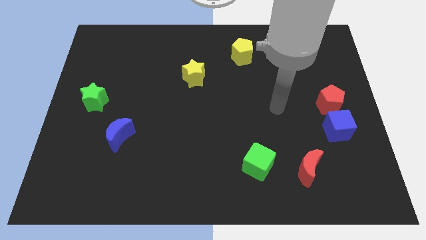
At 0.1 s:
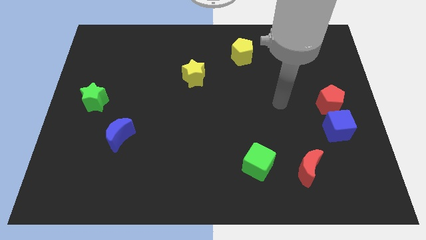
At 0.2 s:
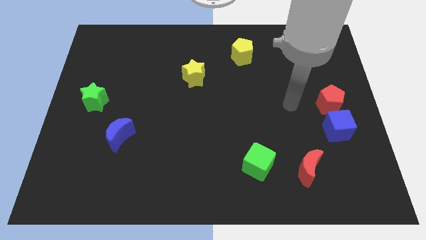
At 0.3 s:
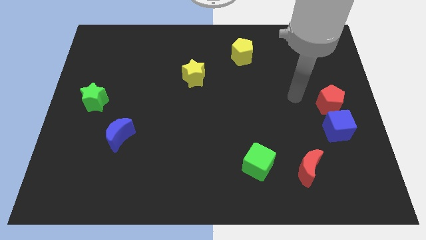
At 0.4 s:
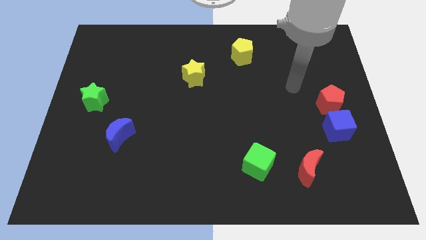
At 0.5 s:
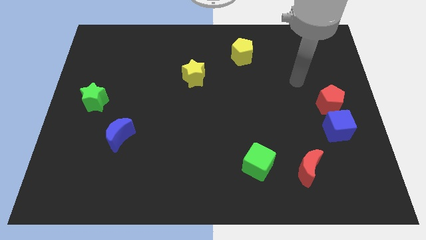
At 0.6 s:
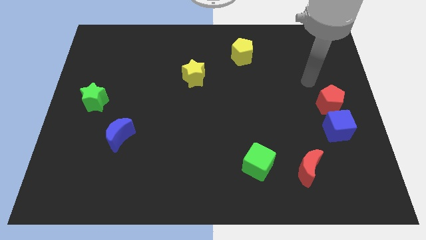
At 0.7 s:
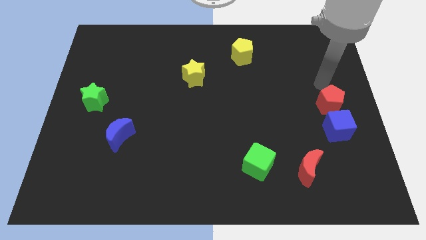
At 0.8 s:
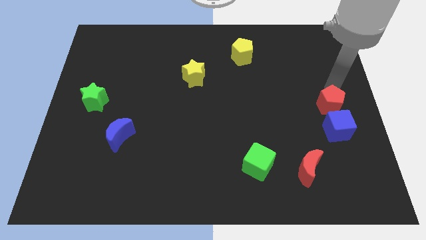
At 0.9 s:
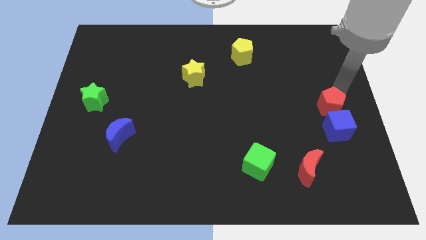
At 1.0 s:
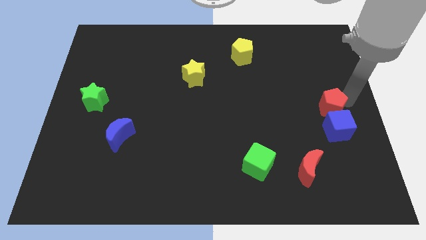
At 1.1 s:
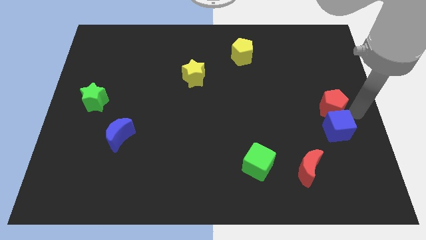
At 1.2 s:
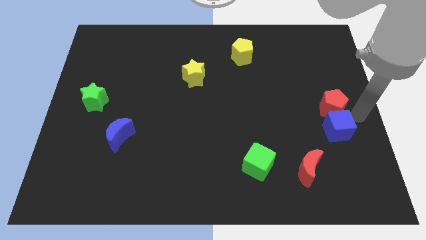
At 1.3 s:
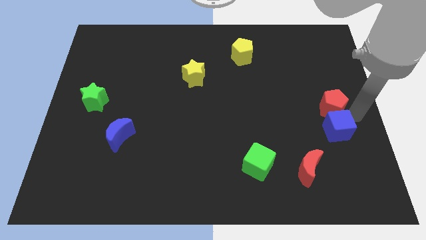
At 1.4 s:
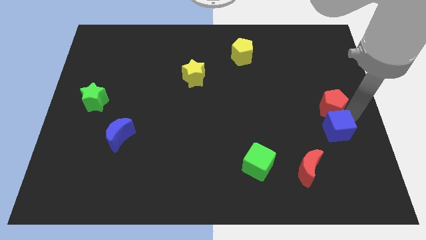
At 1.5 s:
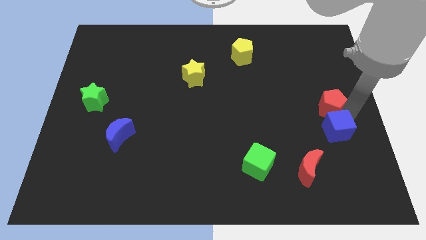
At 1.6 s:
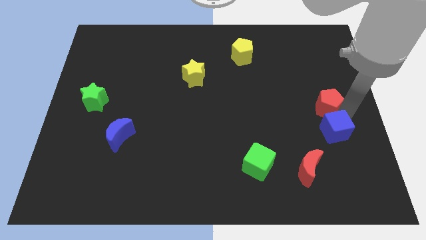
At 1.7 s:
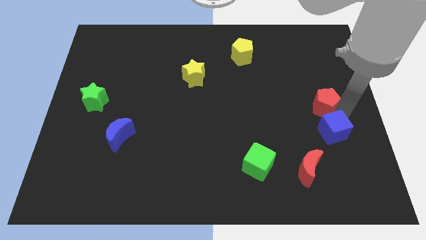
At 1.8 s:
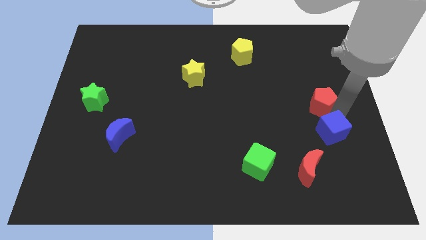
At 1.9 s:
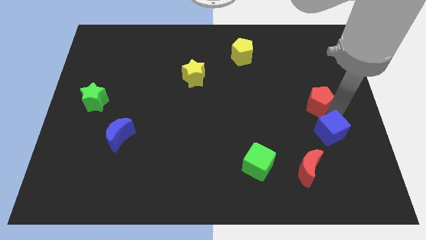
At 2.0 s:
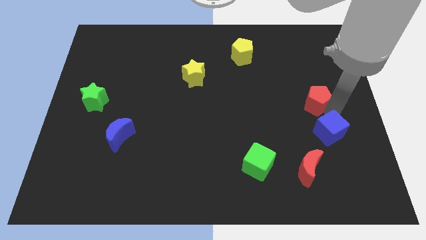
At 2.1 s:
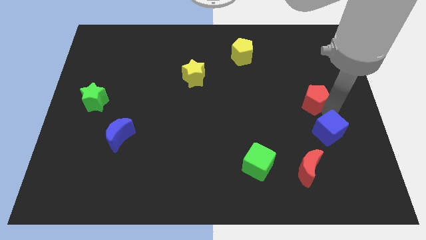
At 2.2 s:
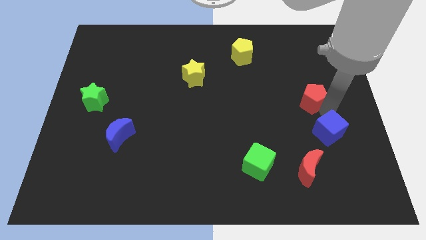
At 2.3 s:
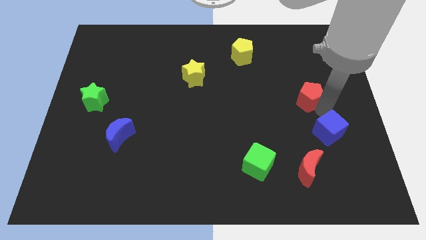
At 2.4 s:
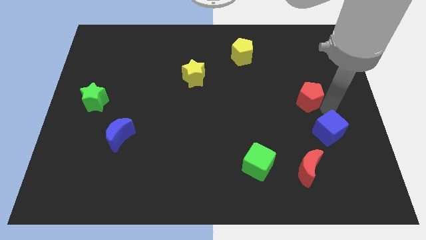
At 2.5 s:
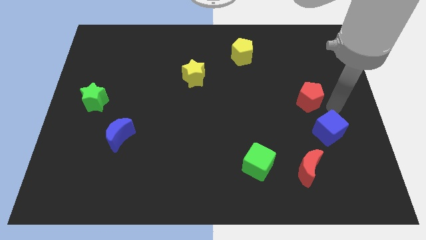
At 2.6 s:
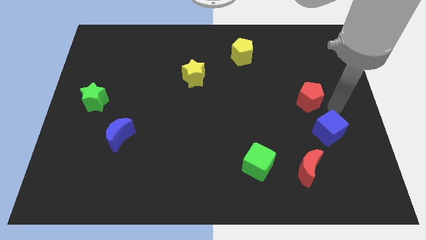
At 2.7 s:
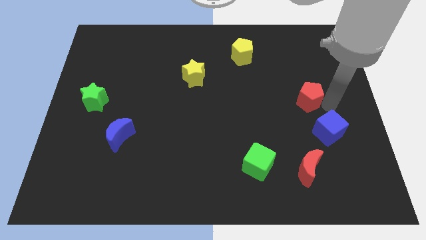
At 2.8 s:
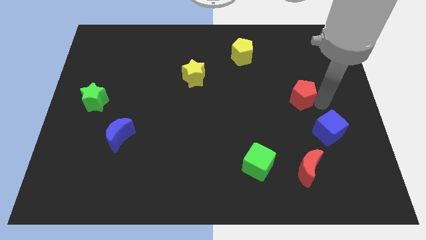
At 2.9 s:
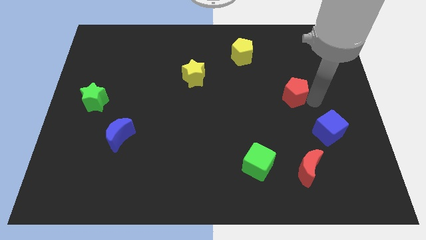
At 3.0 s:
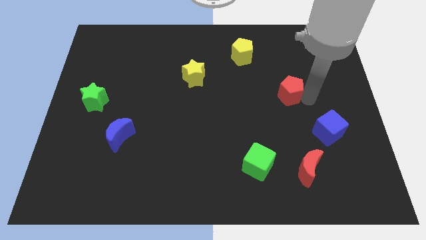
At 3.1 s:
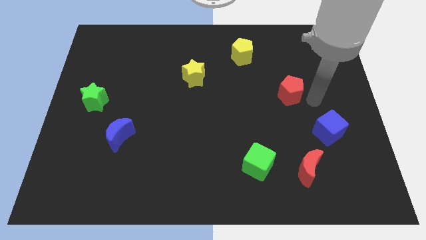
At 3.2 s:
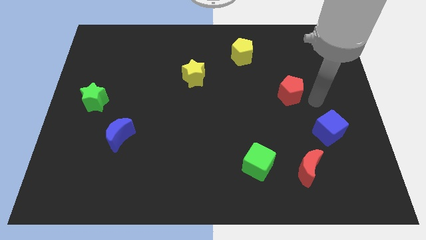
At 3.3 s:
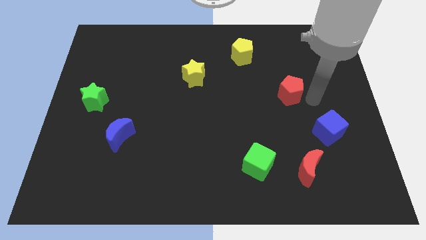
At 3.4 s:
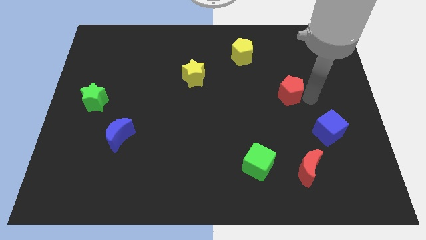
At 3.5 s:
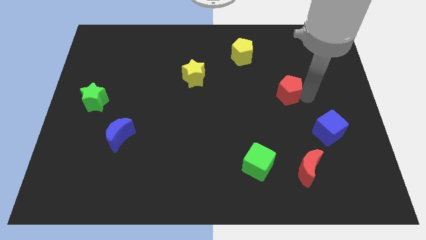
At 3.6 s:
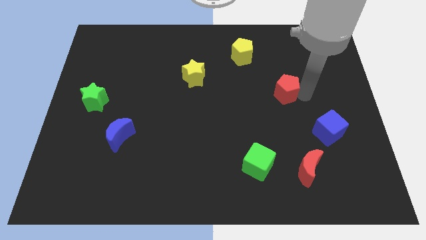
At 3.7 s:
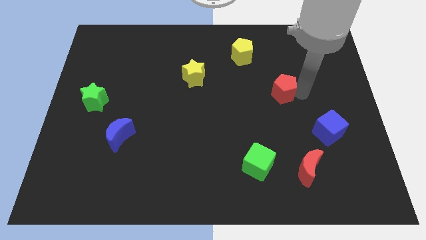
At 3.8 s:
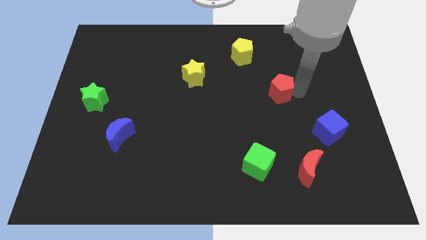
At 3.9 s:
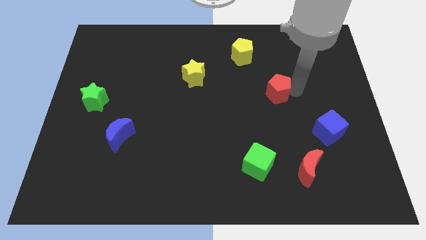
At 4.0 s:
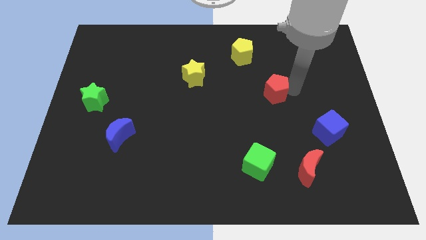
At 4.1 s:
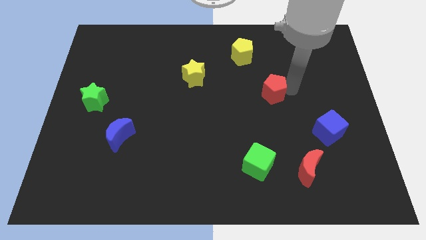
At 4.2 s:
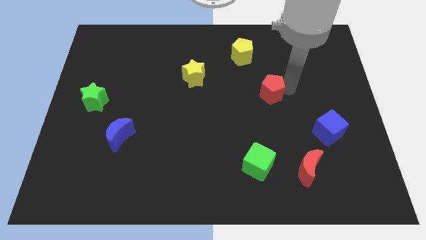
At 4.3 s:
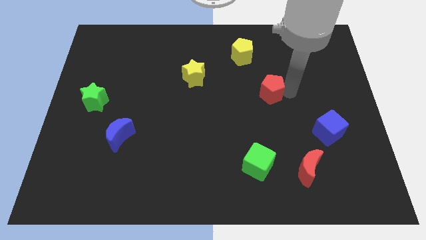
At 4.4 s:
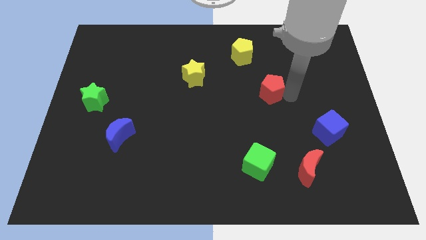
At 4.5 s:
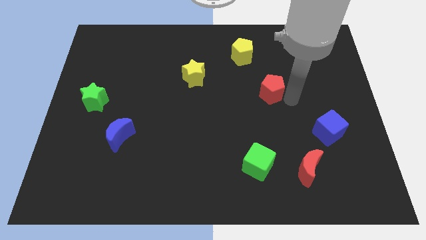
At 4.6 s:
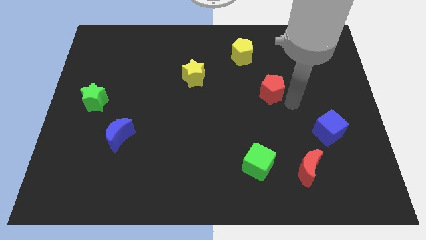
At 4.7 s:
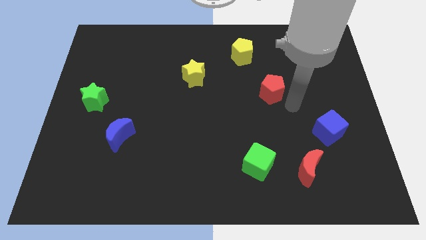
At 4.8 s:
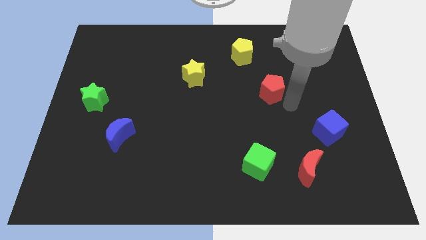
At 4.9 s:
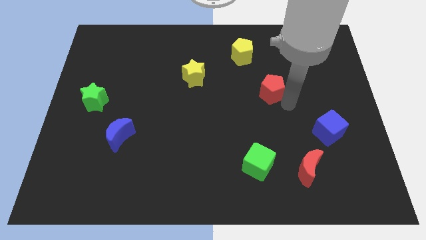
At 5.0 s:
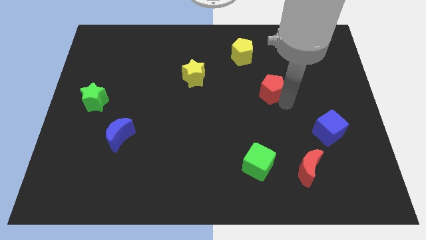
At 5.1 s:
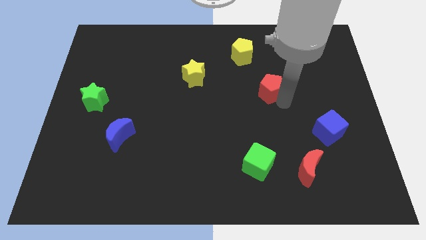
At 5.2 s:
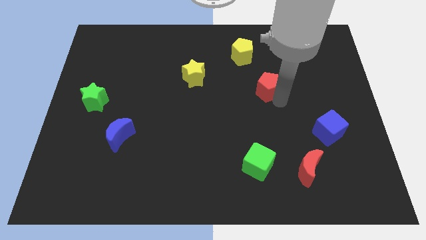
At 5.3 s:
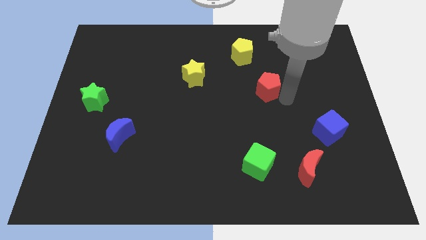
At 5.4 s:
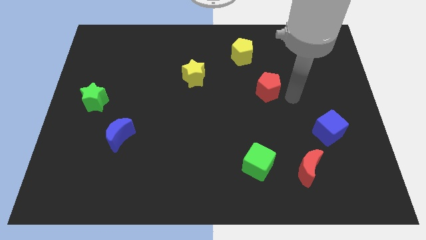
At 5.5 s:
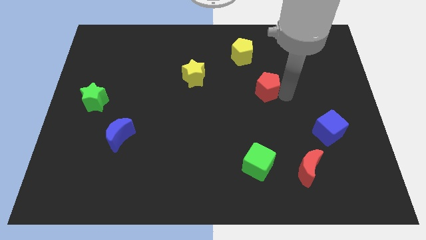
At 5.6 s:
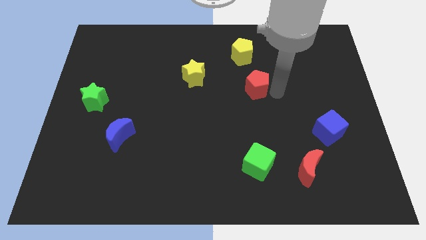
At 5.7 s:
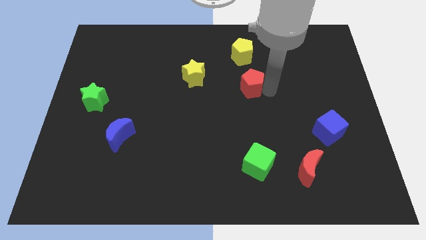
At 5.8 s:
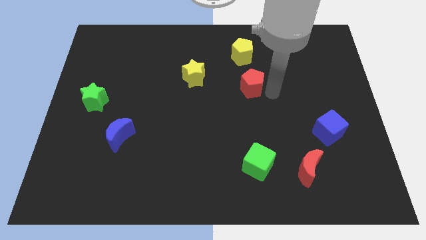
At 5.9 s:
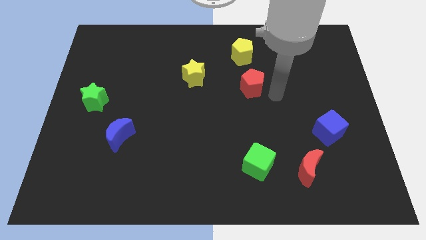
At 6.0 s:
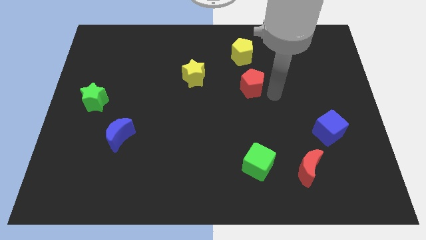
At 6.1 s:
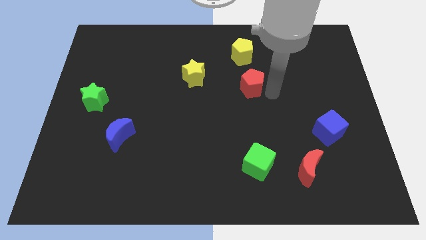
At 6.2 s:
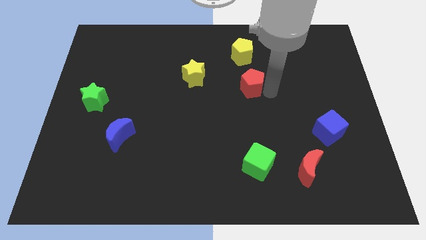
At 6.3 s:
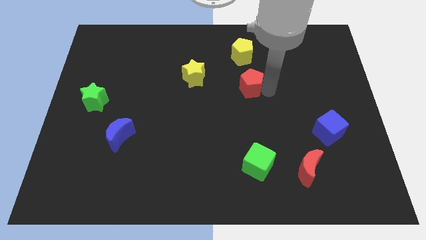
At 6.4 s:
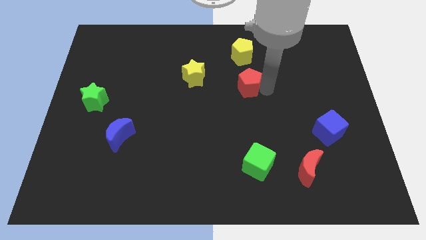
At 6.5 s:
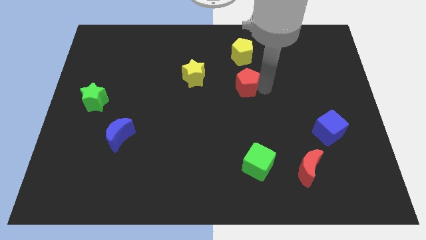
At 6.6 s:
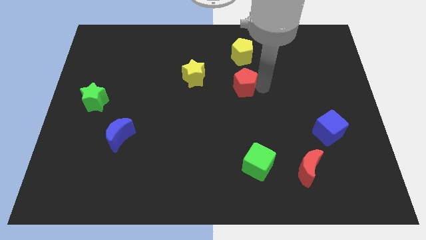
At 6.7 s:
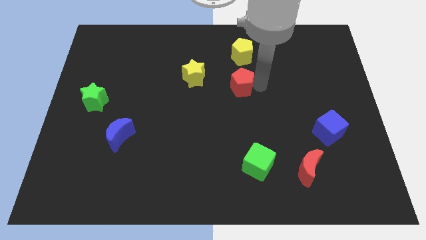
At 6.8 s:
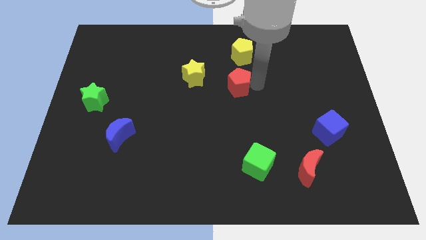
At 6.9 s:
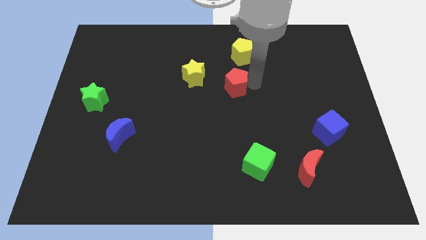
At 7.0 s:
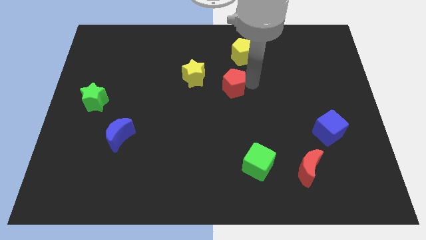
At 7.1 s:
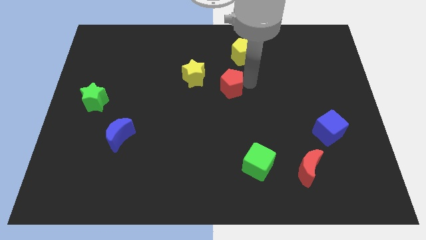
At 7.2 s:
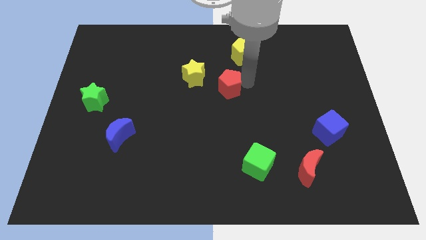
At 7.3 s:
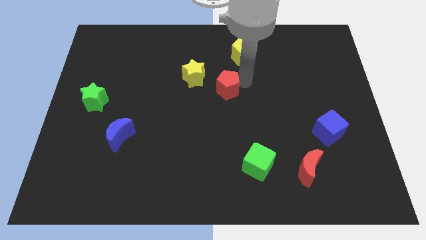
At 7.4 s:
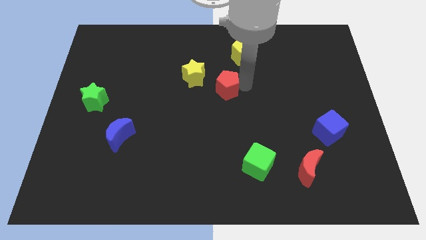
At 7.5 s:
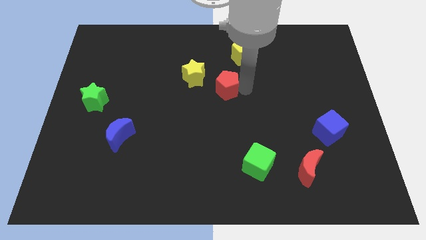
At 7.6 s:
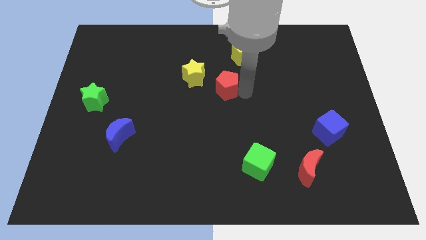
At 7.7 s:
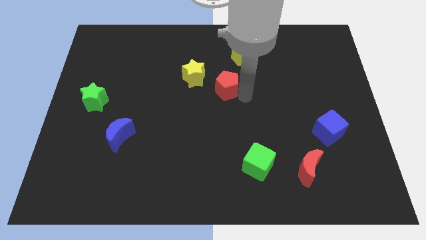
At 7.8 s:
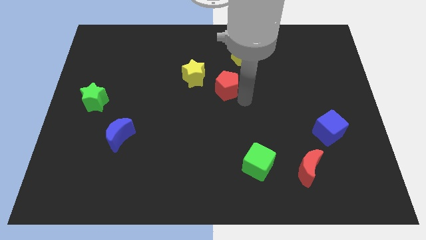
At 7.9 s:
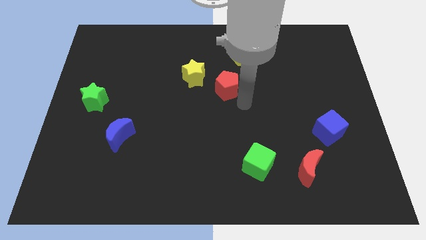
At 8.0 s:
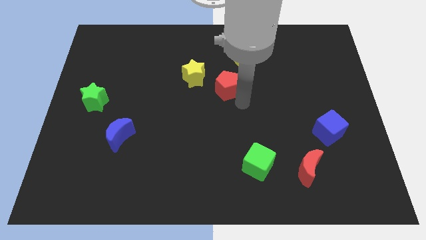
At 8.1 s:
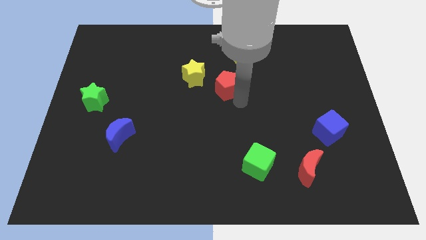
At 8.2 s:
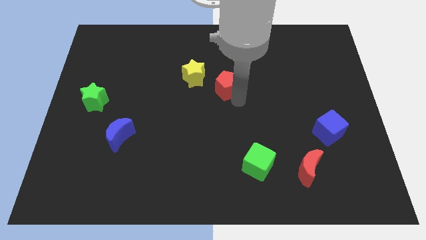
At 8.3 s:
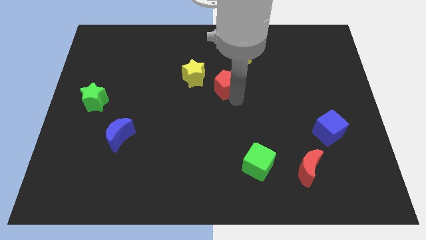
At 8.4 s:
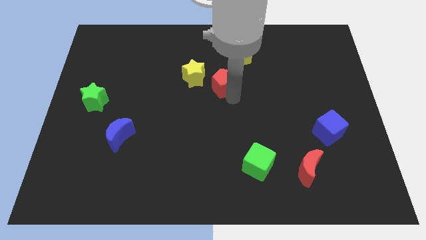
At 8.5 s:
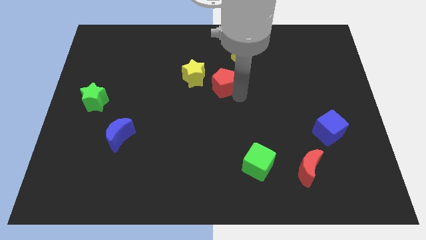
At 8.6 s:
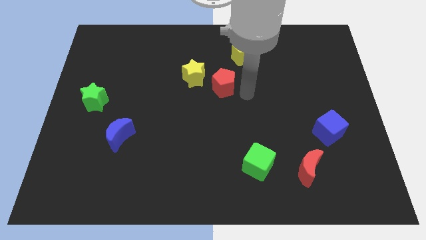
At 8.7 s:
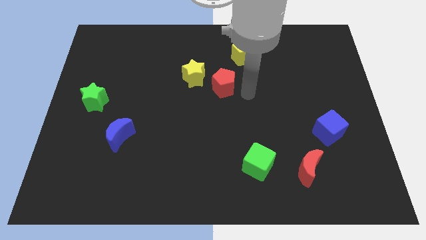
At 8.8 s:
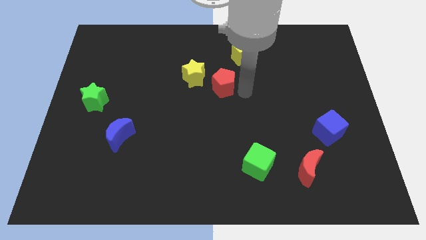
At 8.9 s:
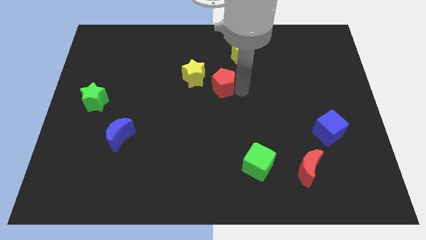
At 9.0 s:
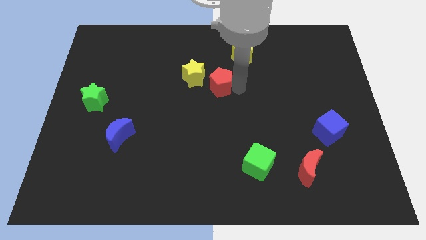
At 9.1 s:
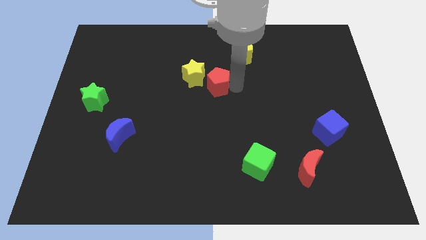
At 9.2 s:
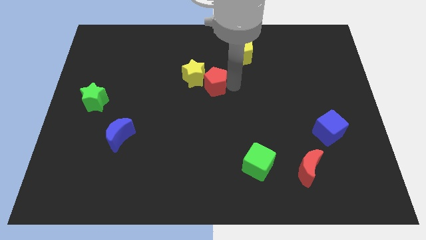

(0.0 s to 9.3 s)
put the red pentagon to the yellow star
